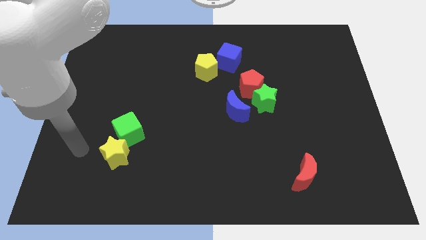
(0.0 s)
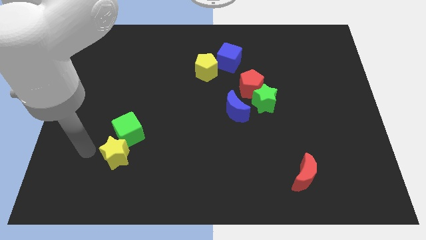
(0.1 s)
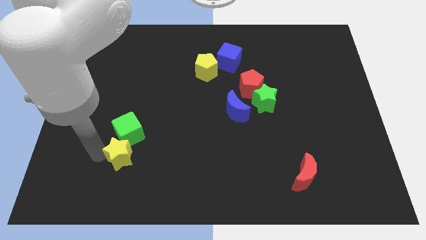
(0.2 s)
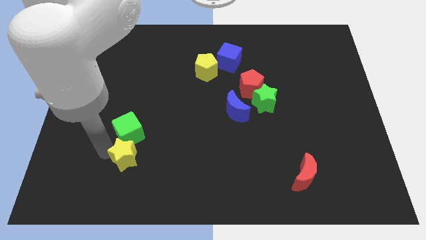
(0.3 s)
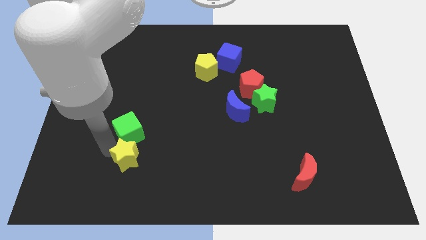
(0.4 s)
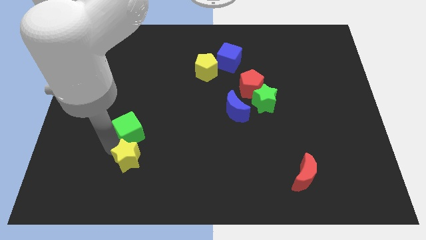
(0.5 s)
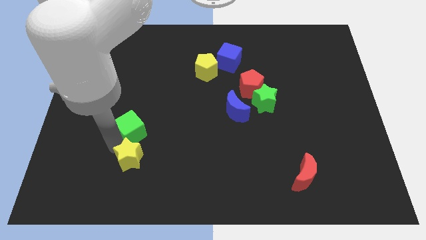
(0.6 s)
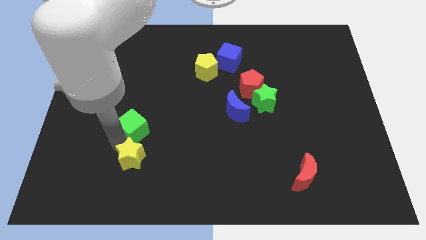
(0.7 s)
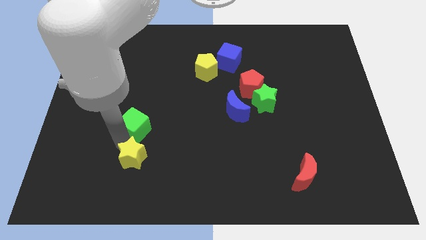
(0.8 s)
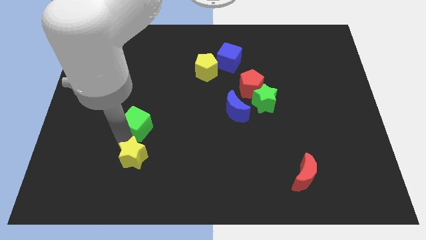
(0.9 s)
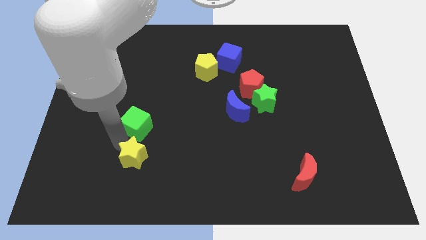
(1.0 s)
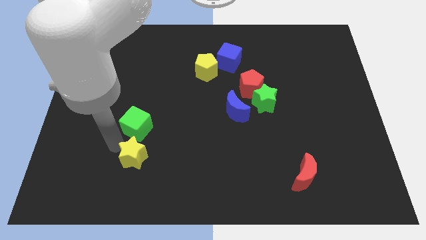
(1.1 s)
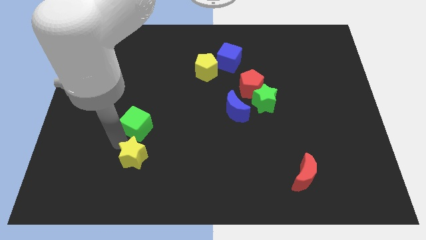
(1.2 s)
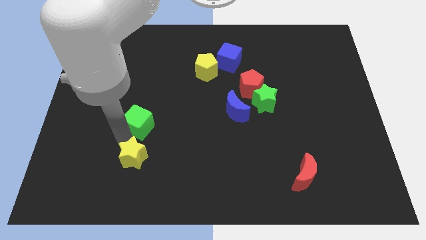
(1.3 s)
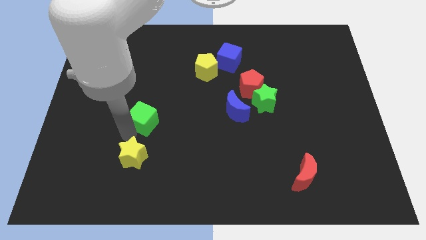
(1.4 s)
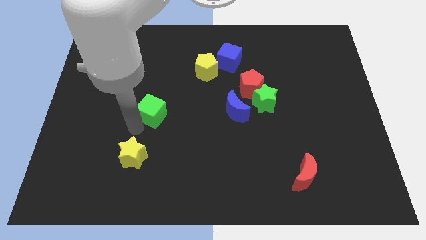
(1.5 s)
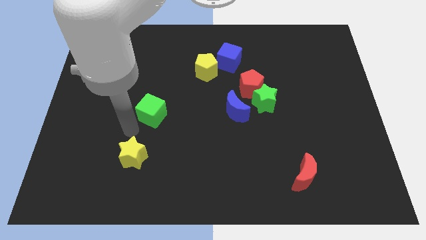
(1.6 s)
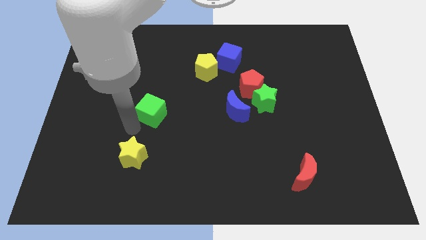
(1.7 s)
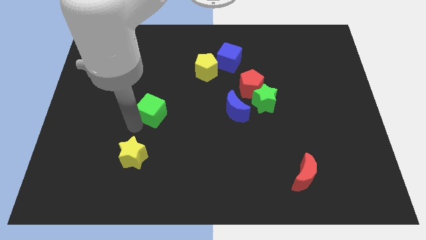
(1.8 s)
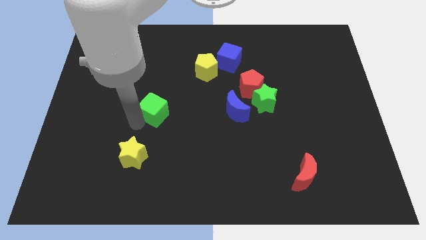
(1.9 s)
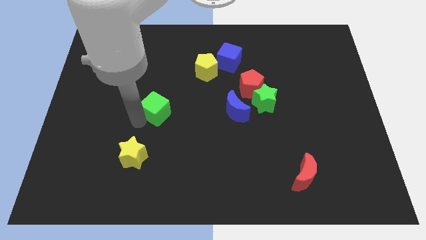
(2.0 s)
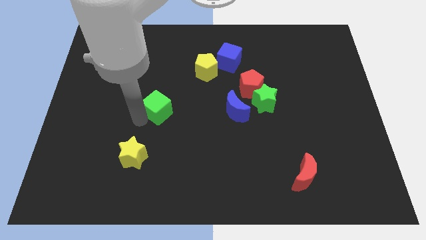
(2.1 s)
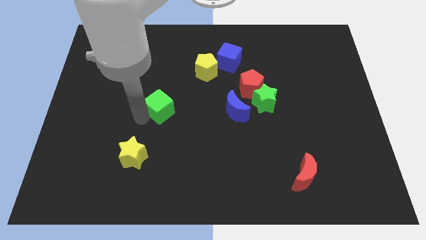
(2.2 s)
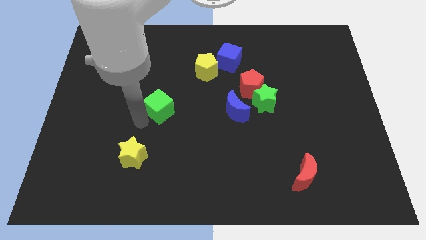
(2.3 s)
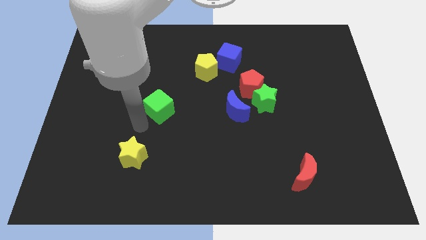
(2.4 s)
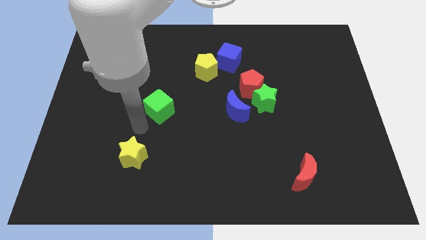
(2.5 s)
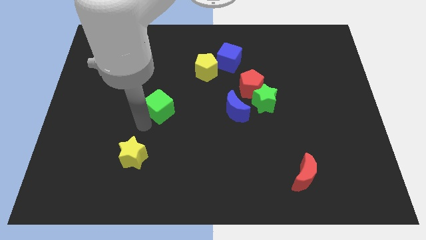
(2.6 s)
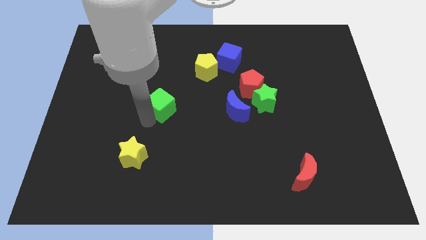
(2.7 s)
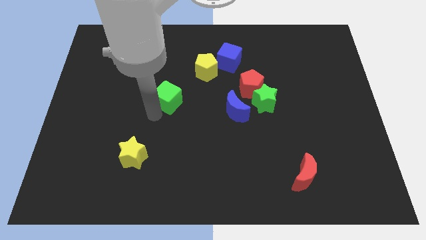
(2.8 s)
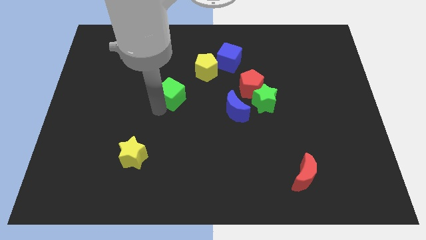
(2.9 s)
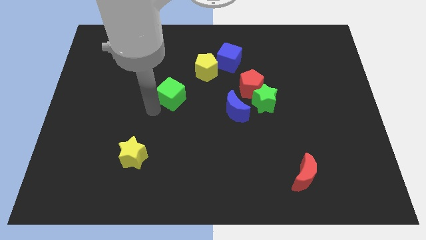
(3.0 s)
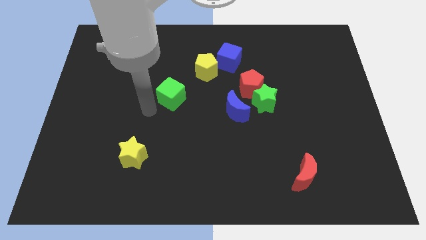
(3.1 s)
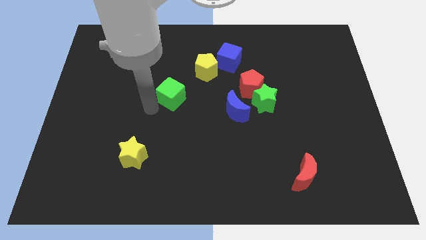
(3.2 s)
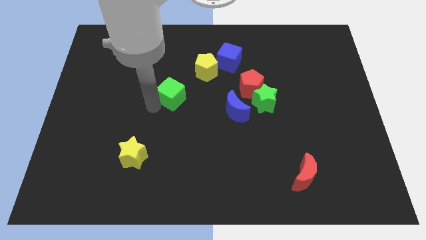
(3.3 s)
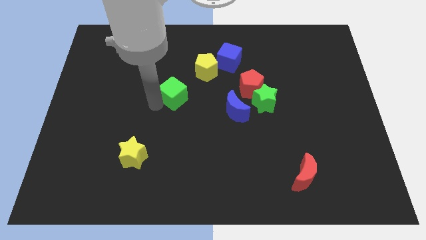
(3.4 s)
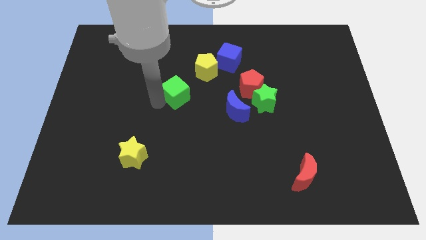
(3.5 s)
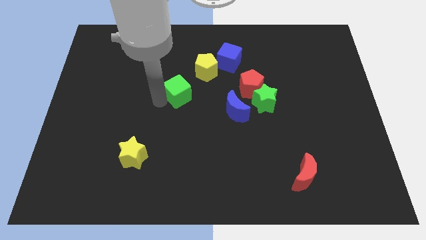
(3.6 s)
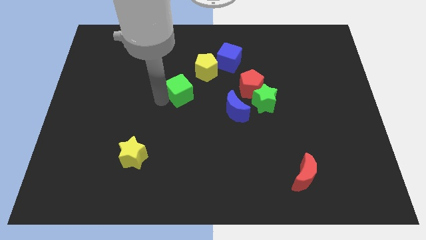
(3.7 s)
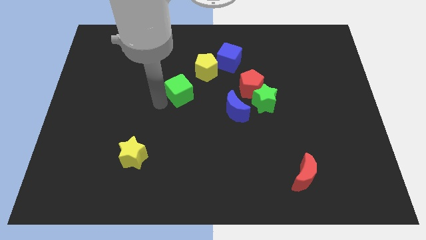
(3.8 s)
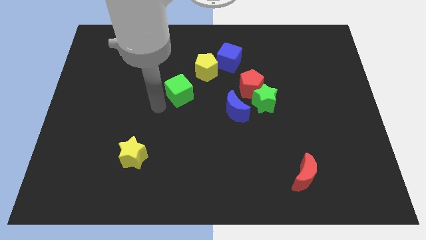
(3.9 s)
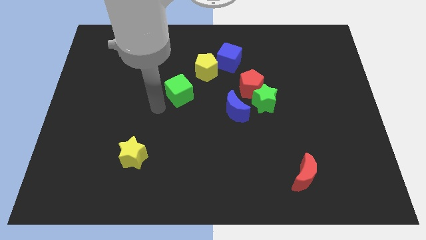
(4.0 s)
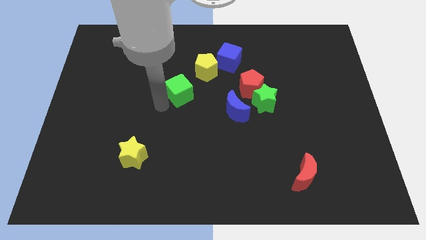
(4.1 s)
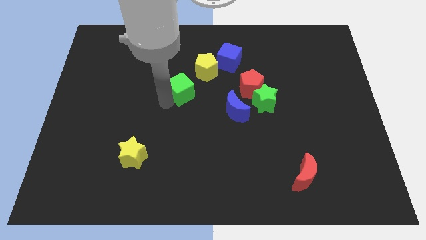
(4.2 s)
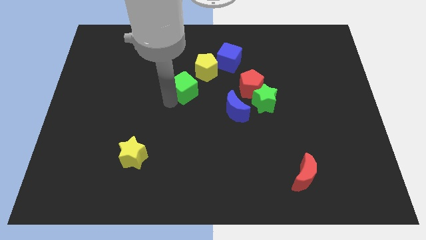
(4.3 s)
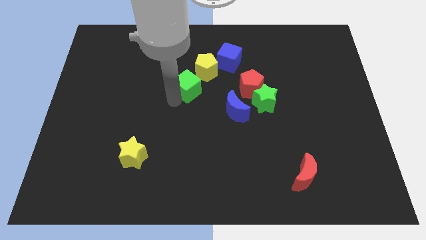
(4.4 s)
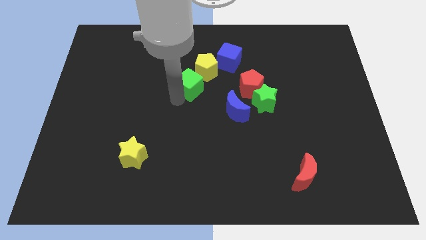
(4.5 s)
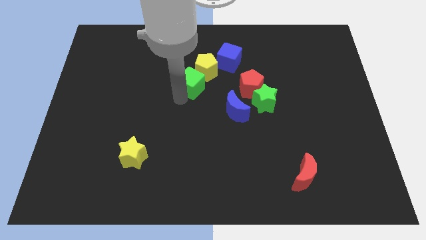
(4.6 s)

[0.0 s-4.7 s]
move the green cube next to the yellow pentagon

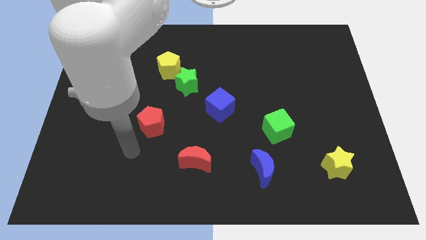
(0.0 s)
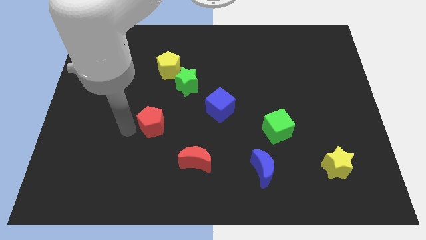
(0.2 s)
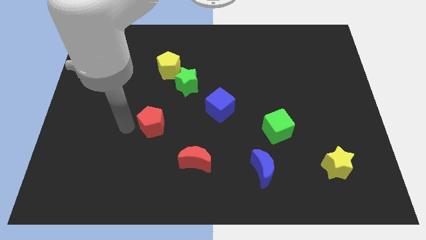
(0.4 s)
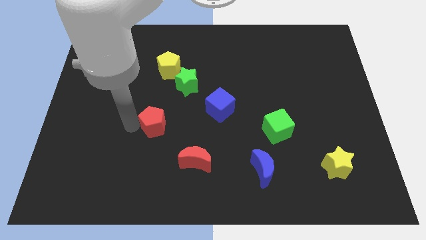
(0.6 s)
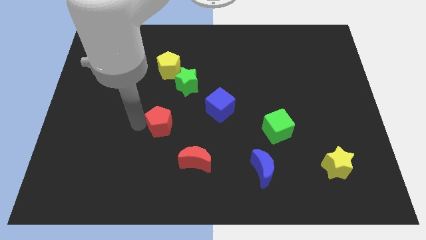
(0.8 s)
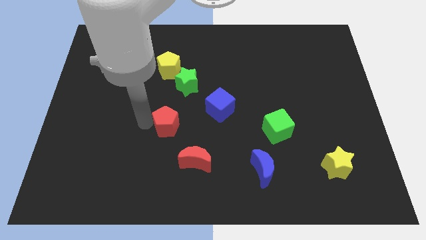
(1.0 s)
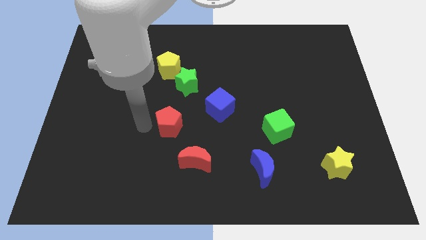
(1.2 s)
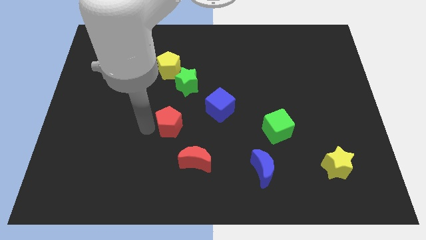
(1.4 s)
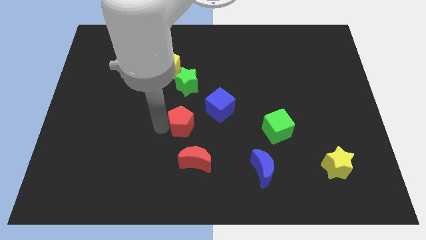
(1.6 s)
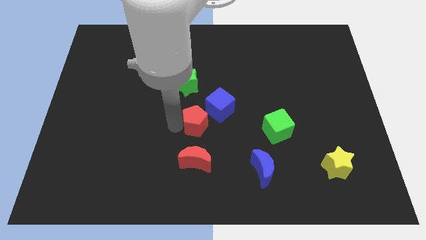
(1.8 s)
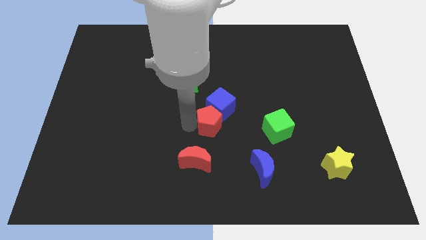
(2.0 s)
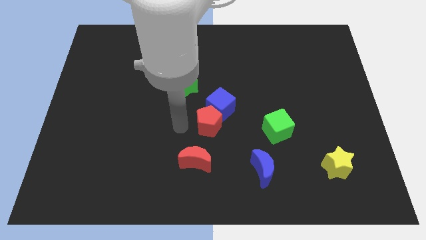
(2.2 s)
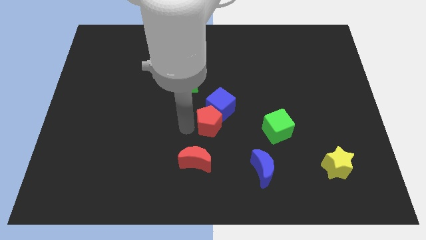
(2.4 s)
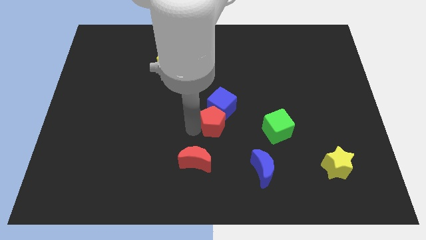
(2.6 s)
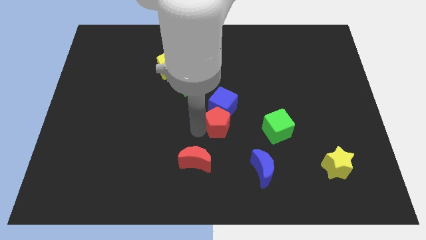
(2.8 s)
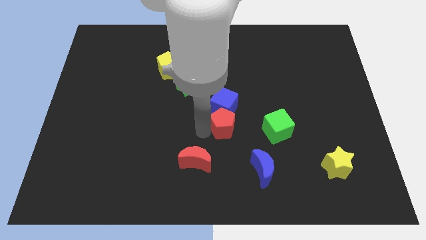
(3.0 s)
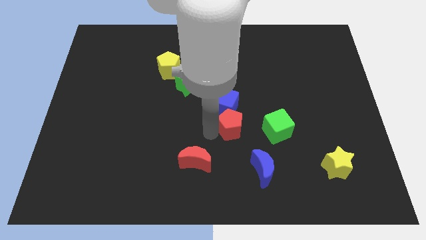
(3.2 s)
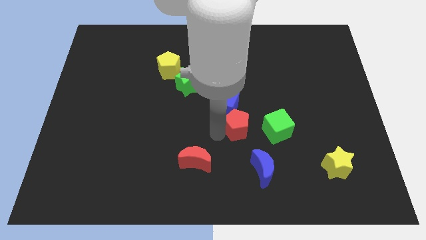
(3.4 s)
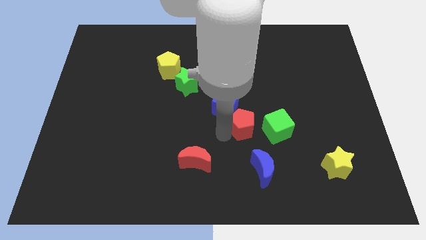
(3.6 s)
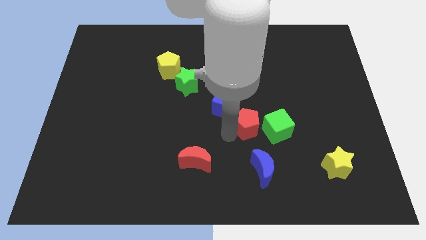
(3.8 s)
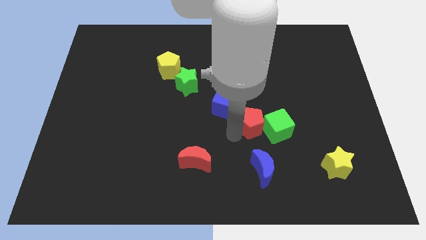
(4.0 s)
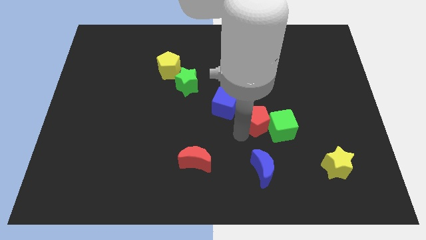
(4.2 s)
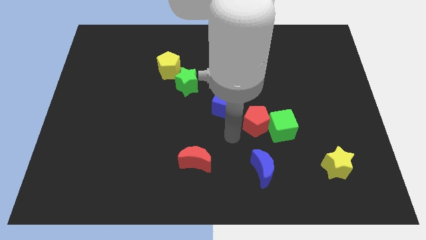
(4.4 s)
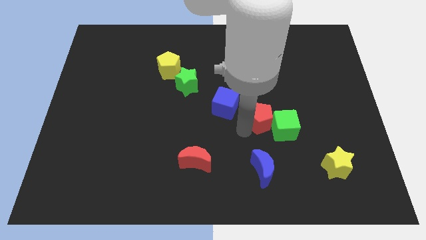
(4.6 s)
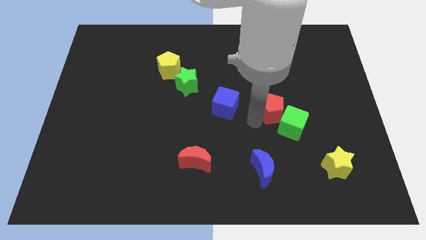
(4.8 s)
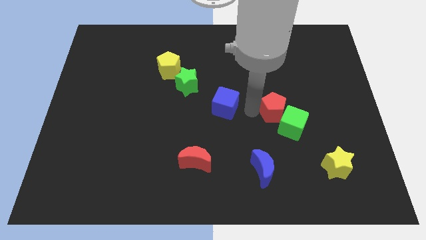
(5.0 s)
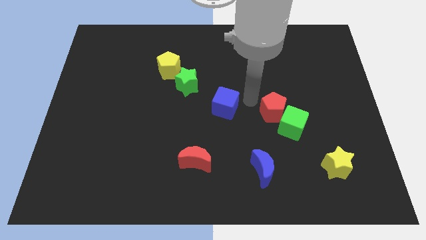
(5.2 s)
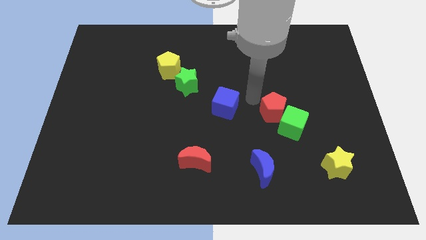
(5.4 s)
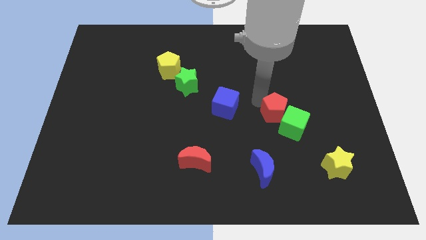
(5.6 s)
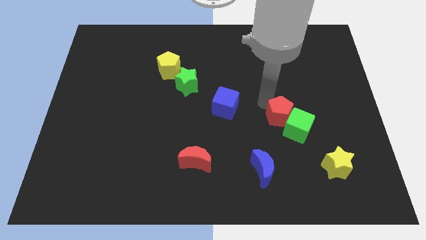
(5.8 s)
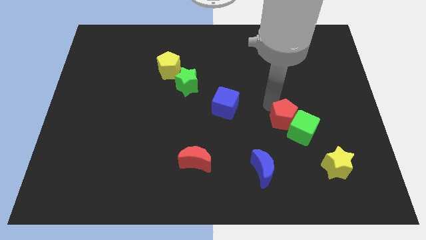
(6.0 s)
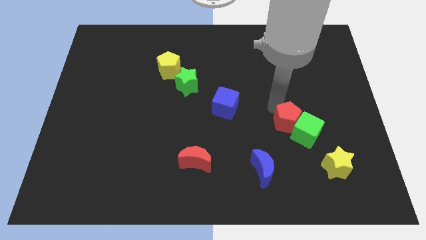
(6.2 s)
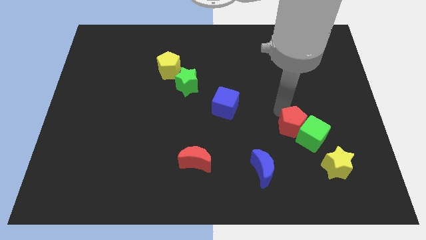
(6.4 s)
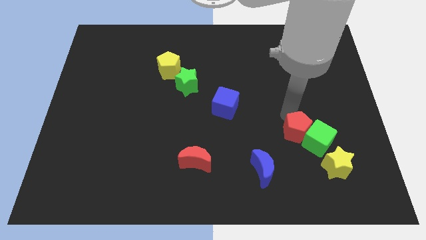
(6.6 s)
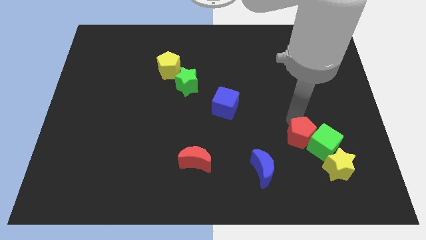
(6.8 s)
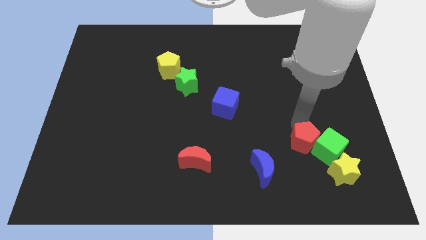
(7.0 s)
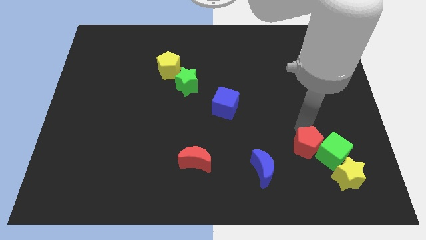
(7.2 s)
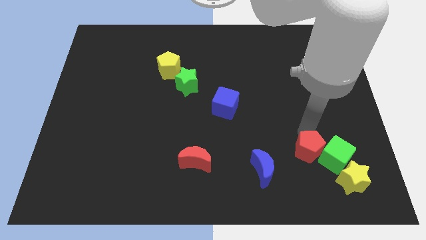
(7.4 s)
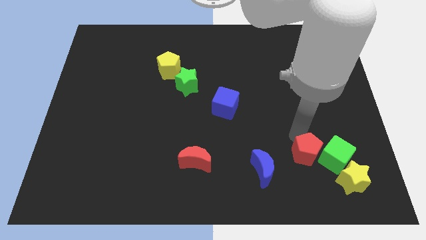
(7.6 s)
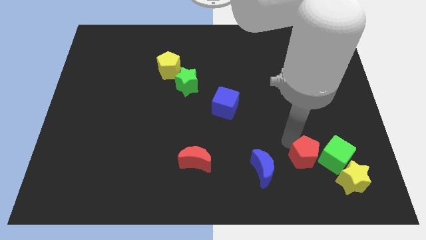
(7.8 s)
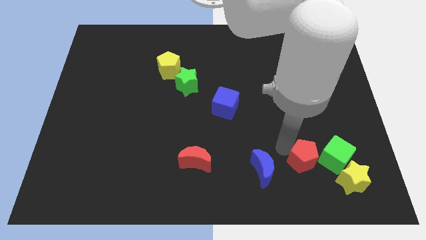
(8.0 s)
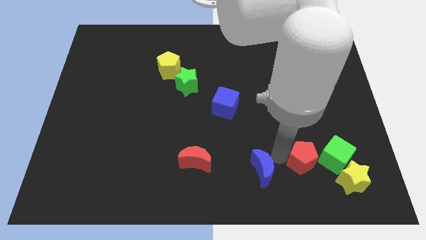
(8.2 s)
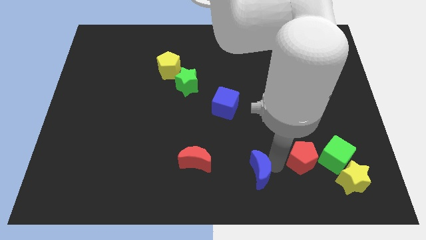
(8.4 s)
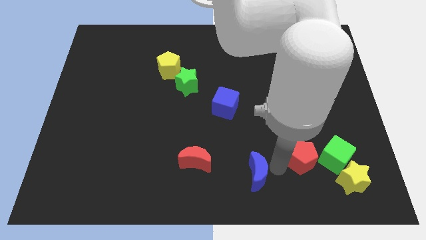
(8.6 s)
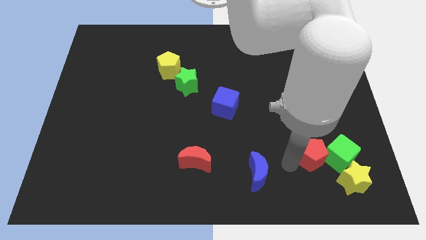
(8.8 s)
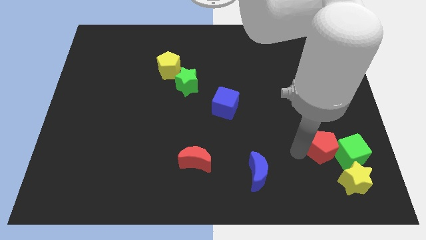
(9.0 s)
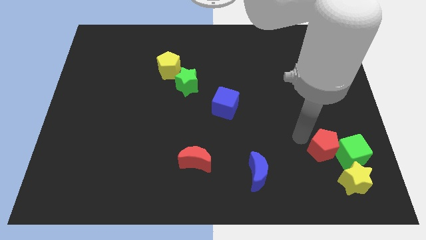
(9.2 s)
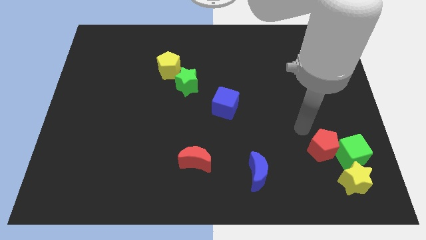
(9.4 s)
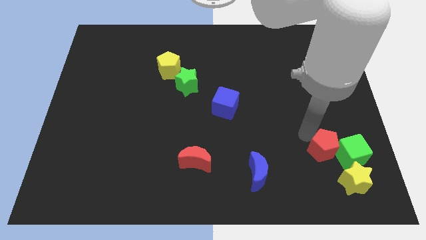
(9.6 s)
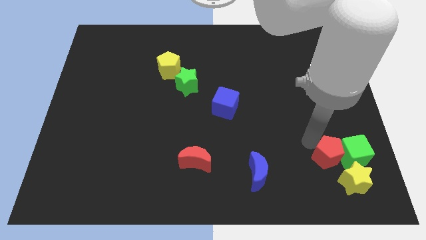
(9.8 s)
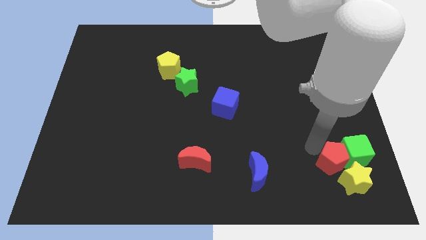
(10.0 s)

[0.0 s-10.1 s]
move the red pentagon towards the yellow star
